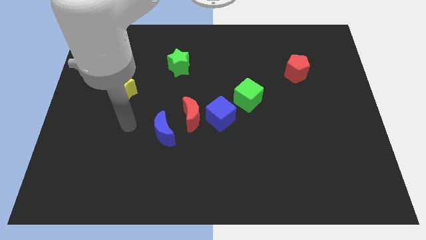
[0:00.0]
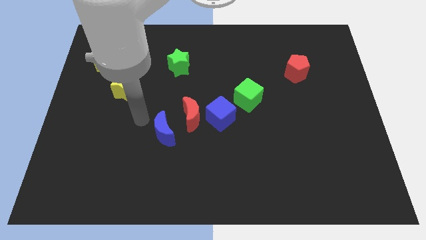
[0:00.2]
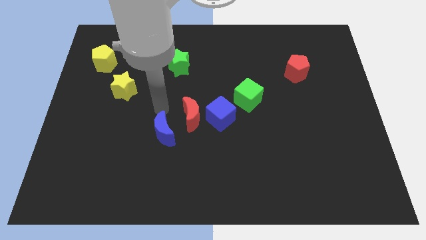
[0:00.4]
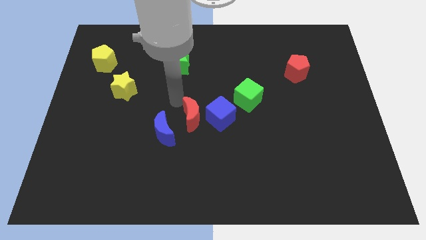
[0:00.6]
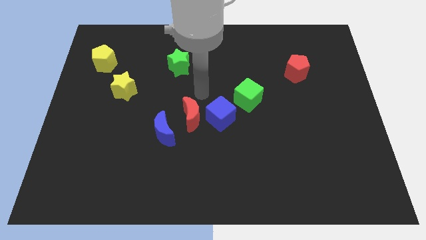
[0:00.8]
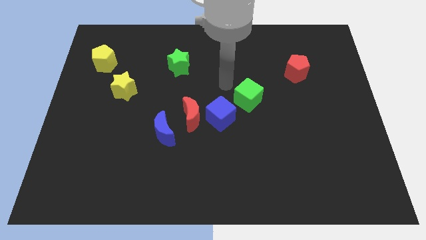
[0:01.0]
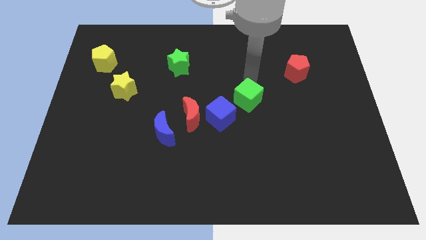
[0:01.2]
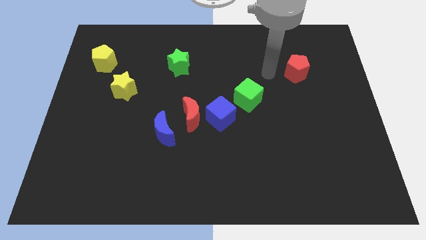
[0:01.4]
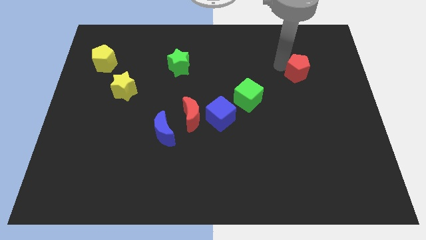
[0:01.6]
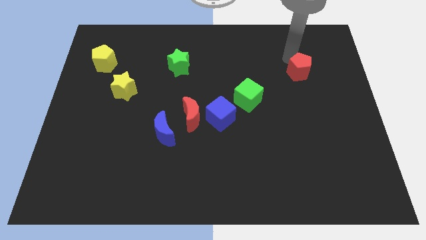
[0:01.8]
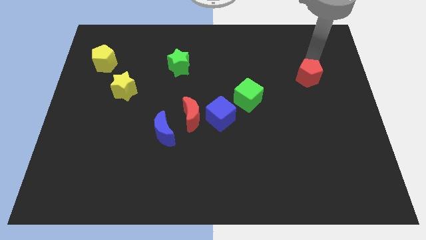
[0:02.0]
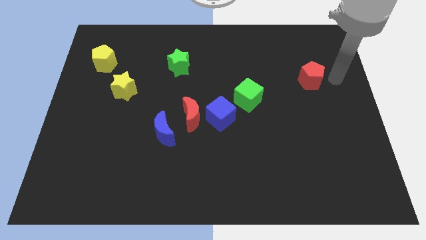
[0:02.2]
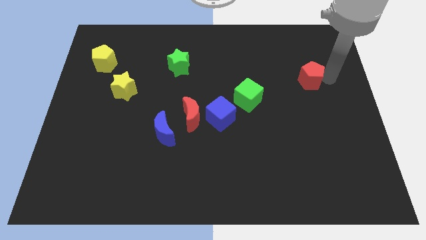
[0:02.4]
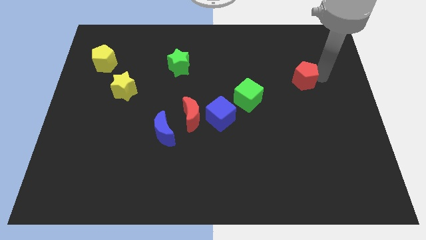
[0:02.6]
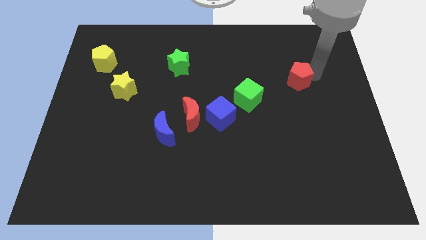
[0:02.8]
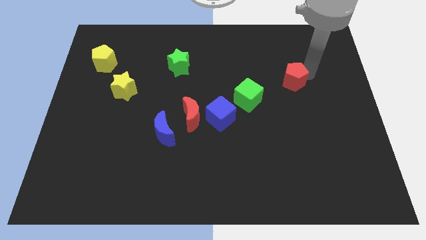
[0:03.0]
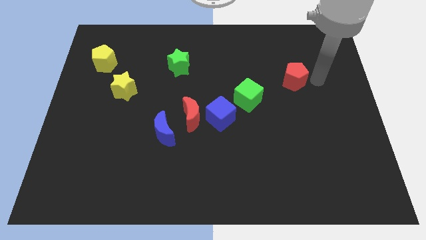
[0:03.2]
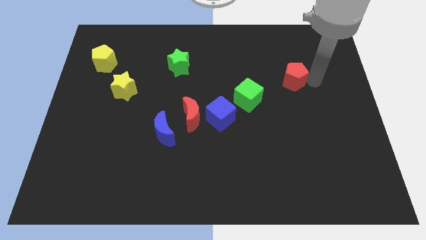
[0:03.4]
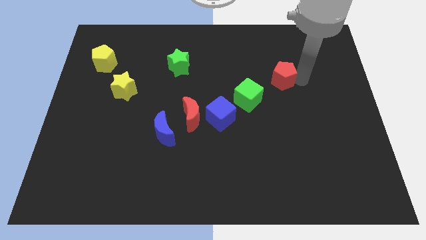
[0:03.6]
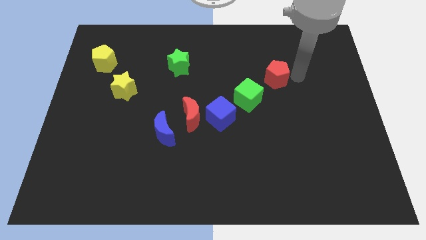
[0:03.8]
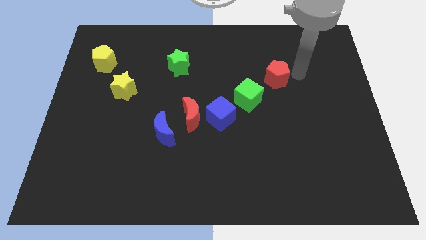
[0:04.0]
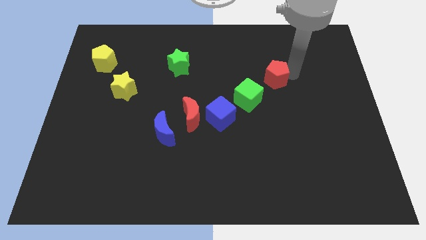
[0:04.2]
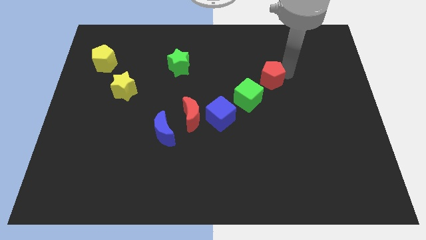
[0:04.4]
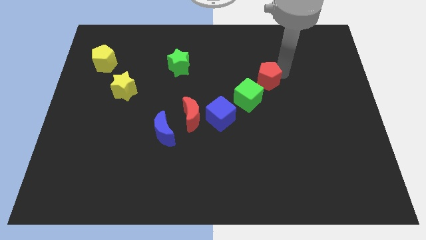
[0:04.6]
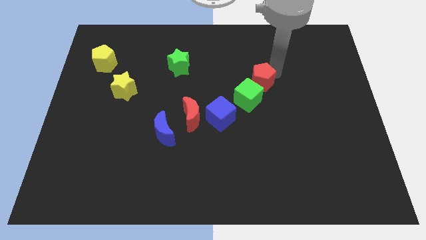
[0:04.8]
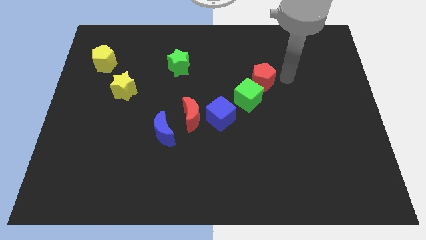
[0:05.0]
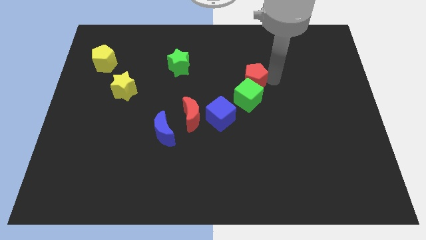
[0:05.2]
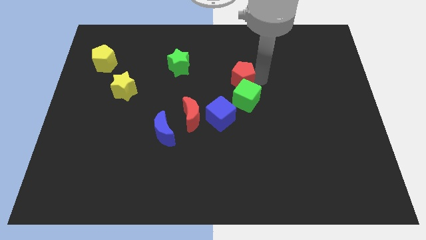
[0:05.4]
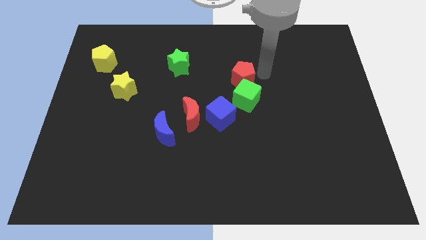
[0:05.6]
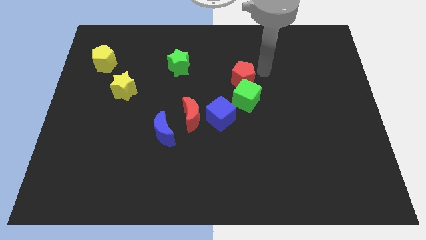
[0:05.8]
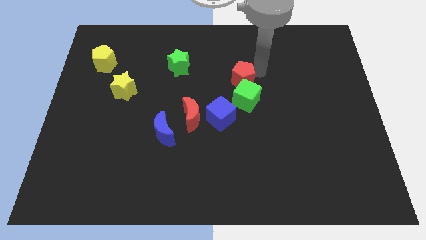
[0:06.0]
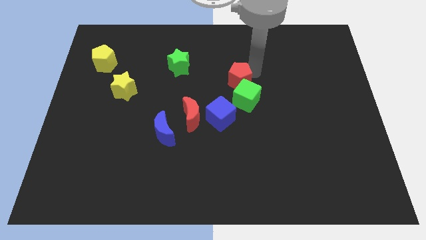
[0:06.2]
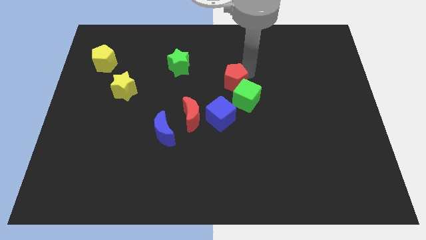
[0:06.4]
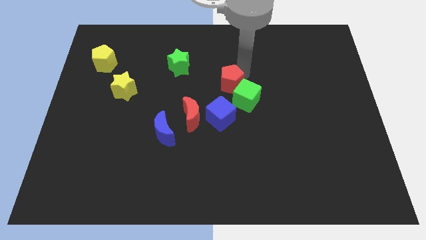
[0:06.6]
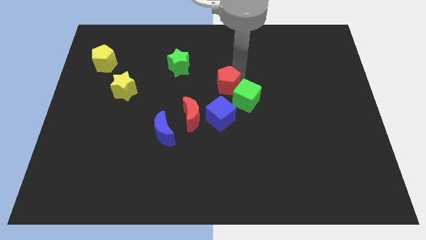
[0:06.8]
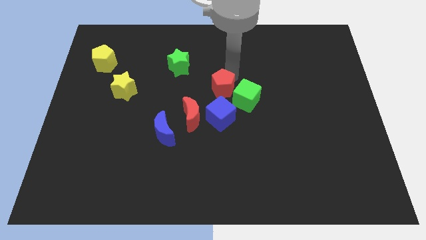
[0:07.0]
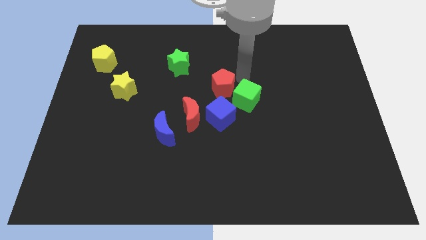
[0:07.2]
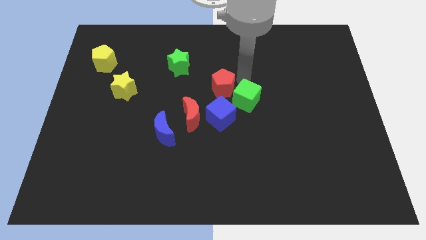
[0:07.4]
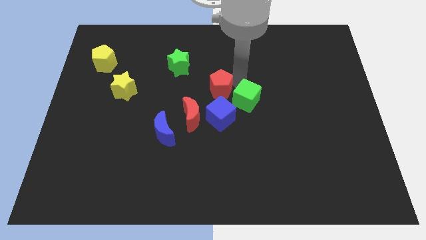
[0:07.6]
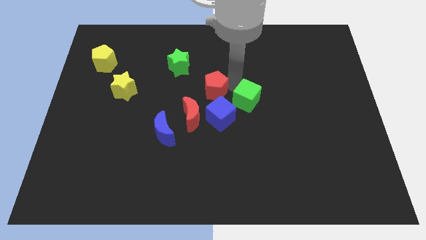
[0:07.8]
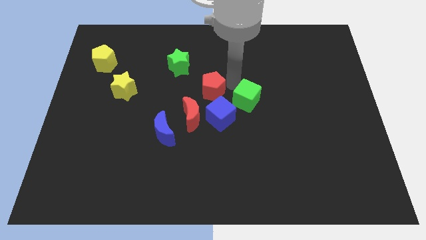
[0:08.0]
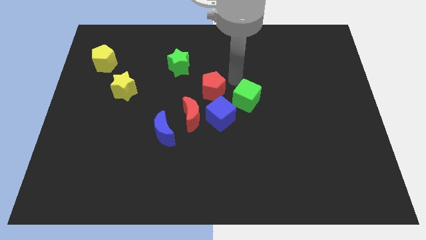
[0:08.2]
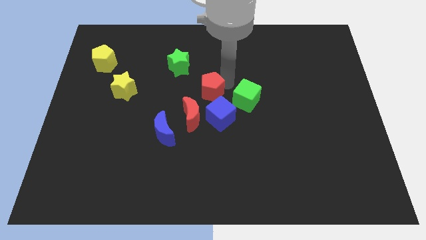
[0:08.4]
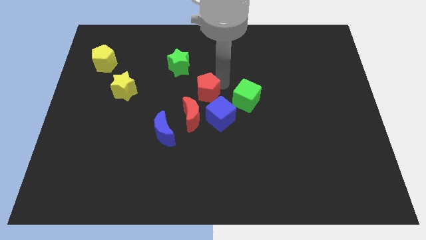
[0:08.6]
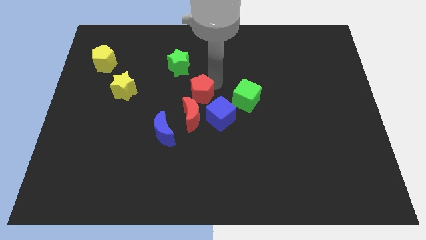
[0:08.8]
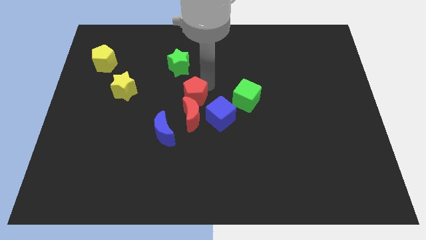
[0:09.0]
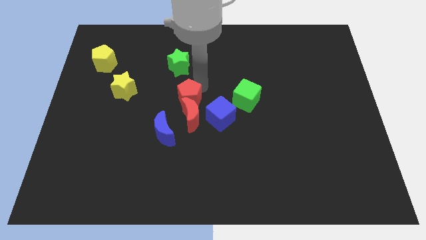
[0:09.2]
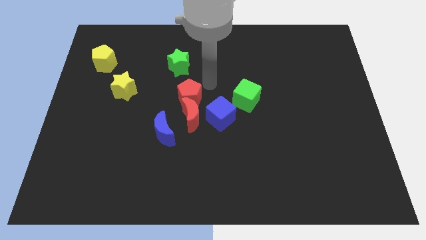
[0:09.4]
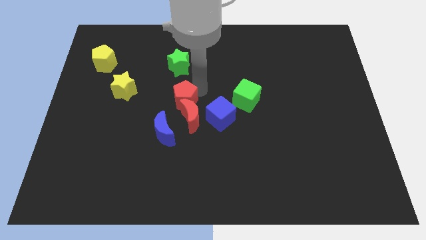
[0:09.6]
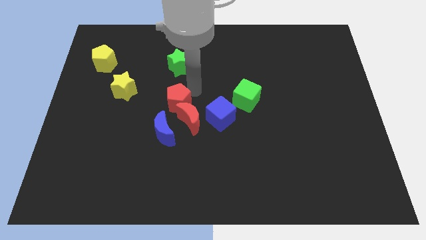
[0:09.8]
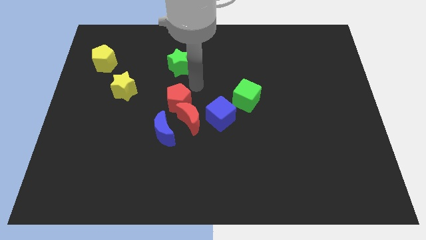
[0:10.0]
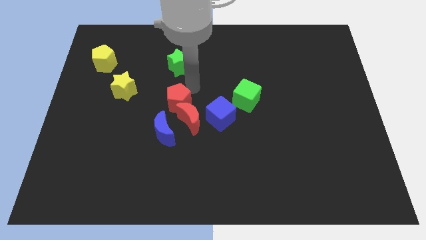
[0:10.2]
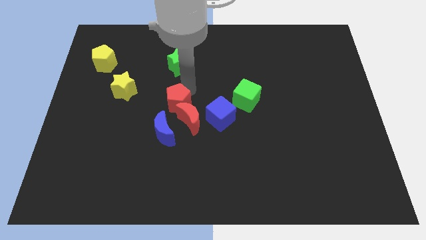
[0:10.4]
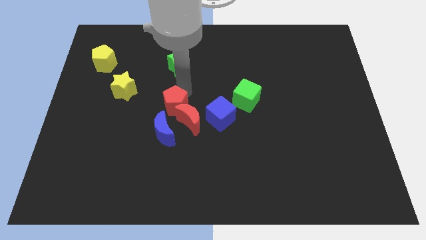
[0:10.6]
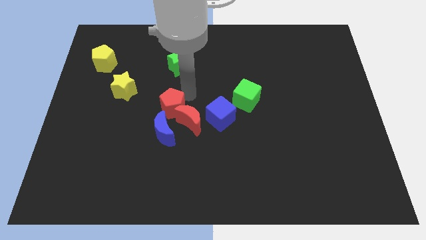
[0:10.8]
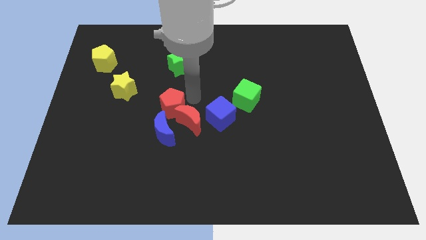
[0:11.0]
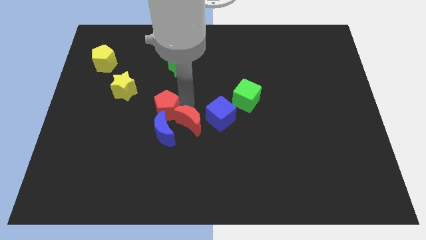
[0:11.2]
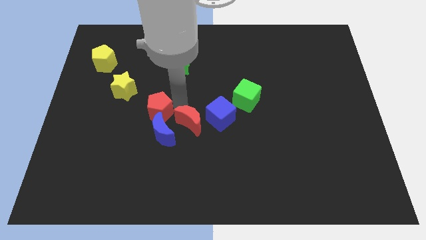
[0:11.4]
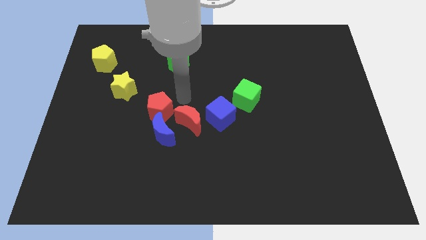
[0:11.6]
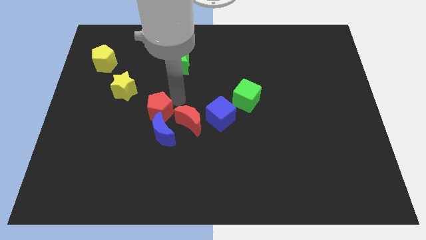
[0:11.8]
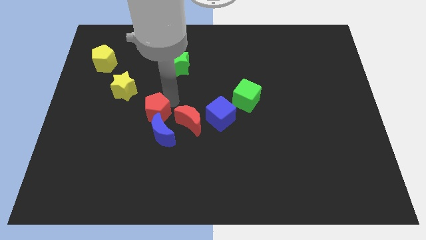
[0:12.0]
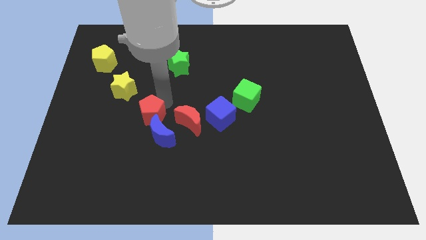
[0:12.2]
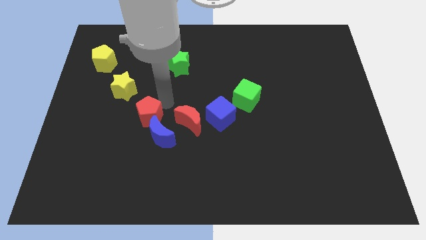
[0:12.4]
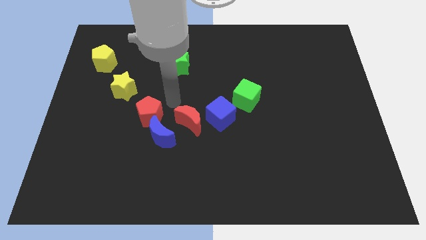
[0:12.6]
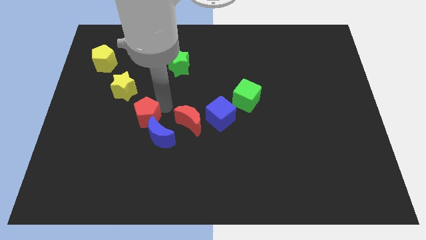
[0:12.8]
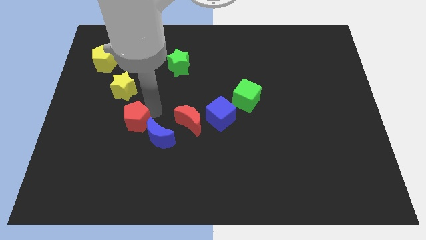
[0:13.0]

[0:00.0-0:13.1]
slide the red pentagon to the left of the blue moon

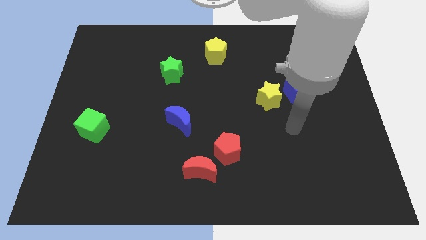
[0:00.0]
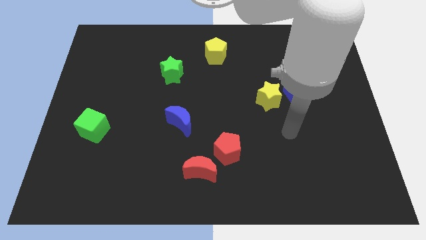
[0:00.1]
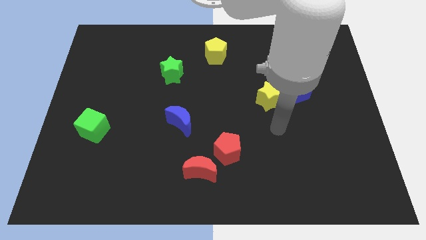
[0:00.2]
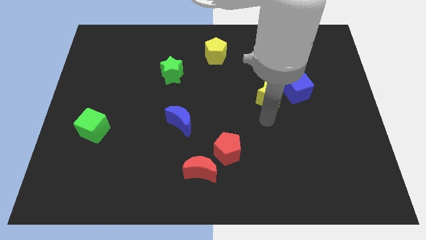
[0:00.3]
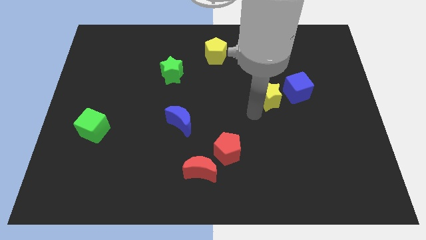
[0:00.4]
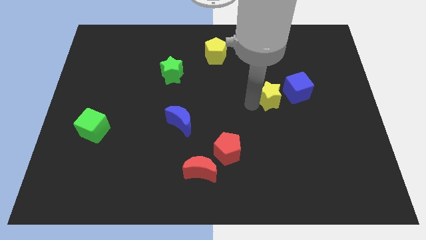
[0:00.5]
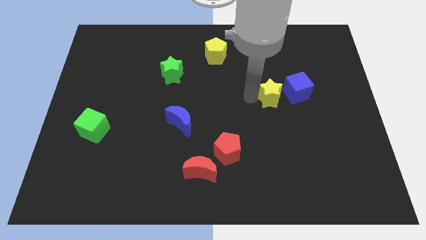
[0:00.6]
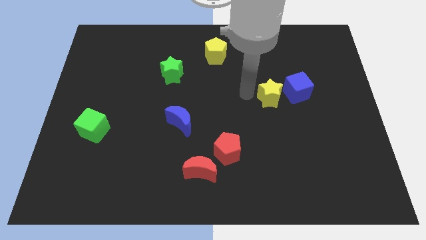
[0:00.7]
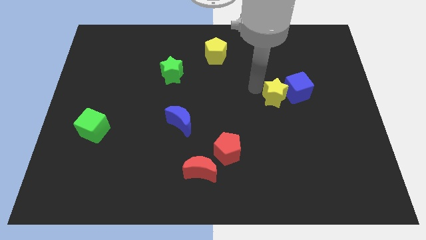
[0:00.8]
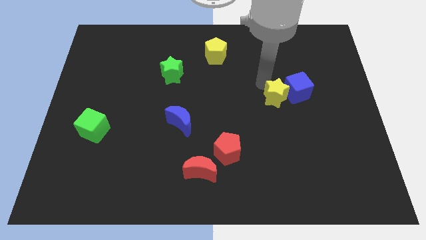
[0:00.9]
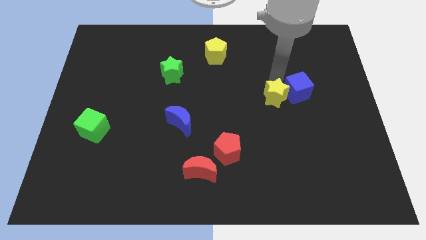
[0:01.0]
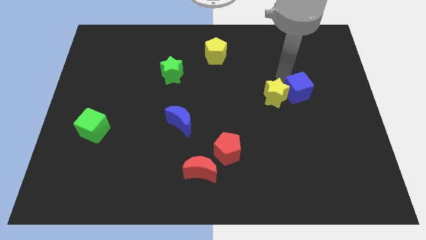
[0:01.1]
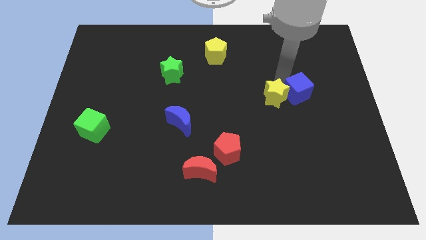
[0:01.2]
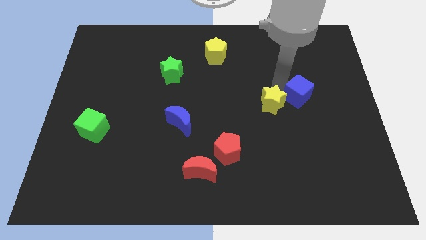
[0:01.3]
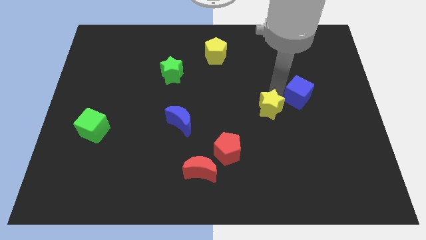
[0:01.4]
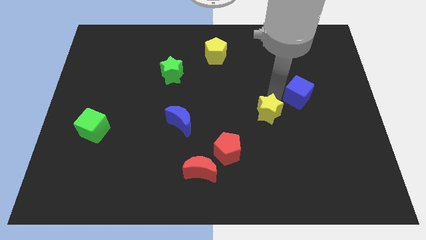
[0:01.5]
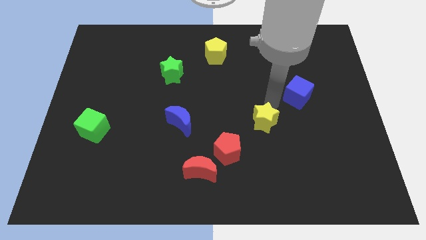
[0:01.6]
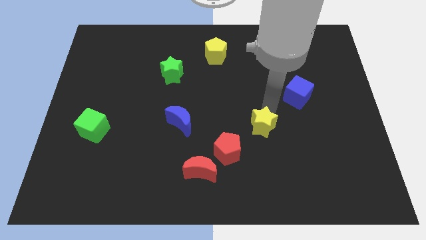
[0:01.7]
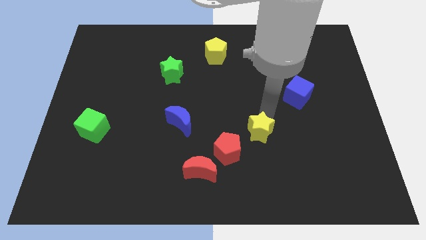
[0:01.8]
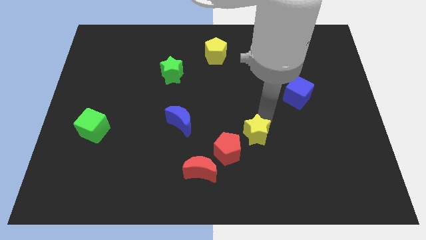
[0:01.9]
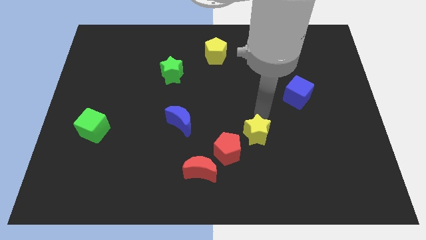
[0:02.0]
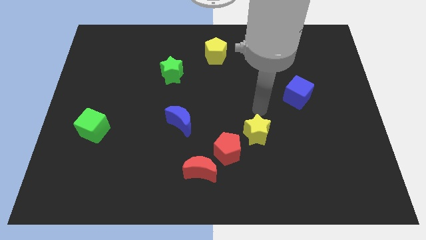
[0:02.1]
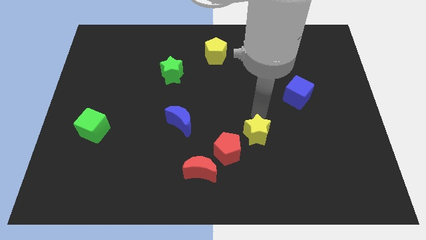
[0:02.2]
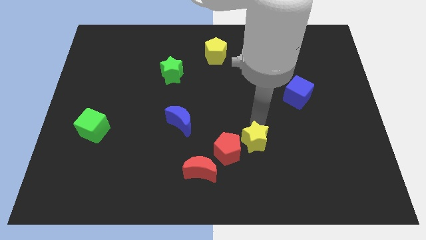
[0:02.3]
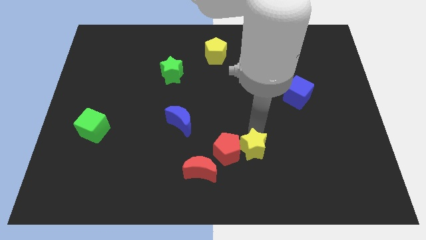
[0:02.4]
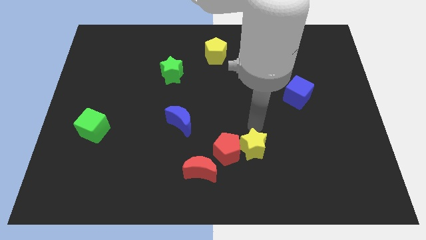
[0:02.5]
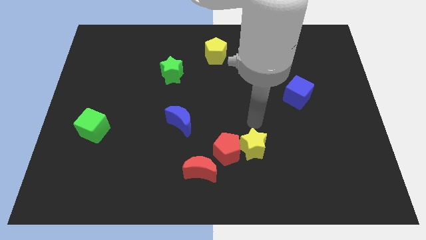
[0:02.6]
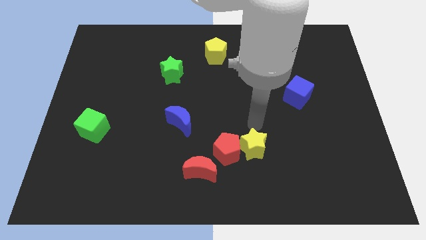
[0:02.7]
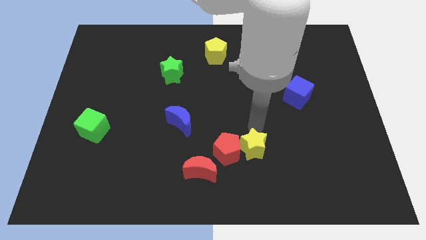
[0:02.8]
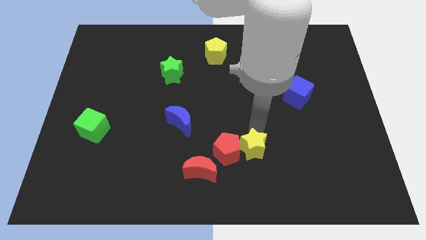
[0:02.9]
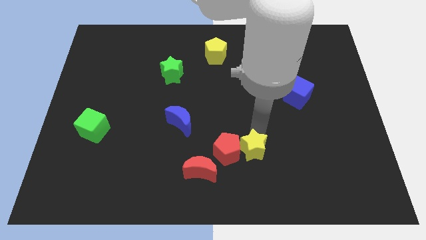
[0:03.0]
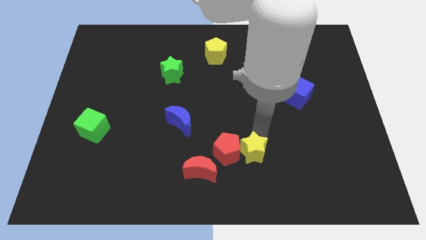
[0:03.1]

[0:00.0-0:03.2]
put the yellow star to the right of the red moon
